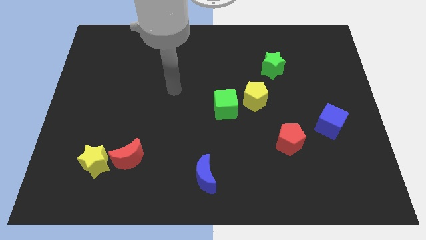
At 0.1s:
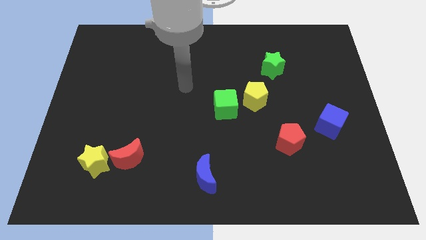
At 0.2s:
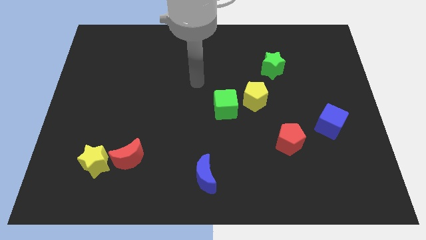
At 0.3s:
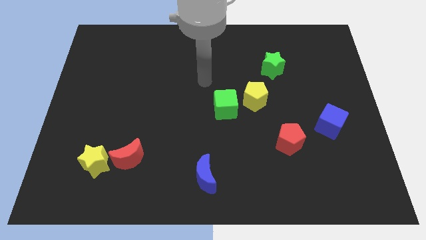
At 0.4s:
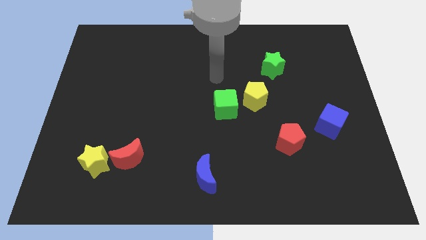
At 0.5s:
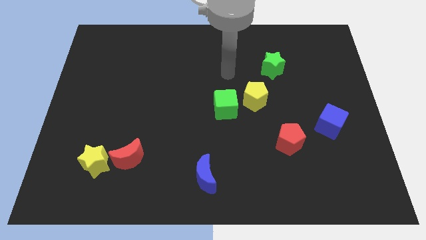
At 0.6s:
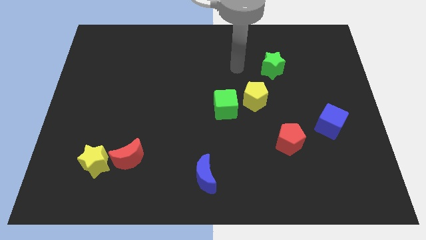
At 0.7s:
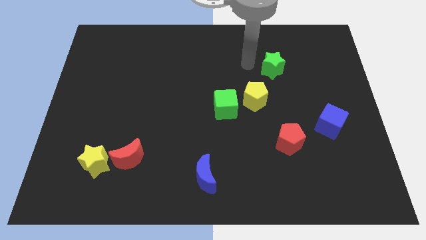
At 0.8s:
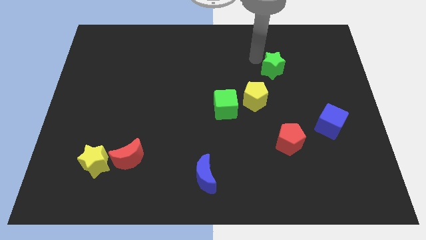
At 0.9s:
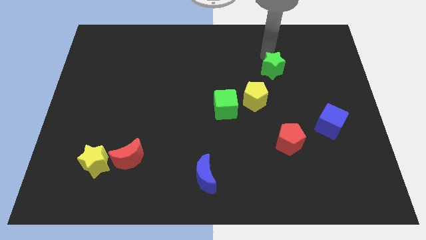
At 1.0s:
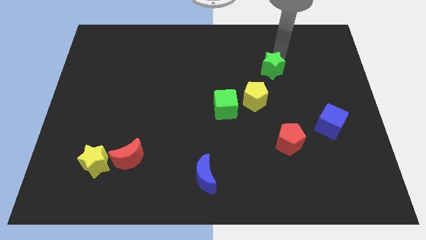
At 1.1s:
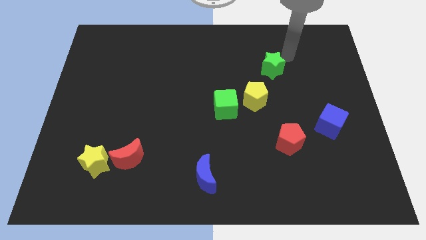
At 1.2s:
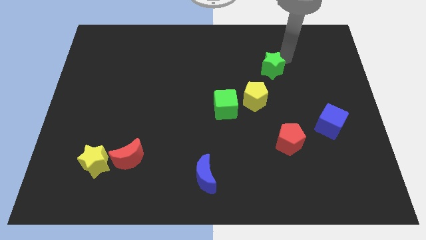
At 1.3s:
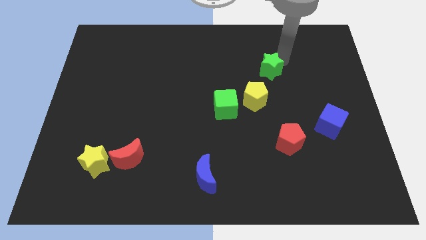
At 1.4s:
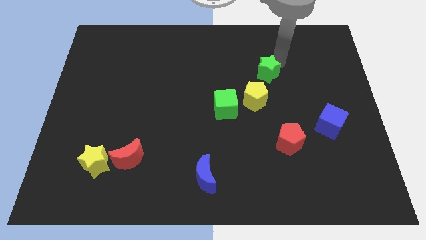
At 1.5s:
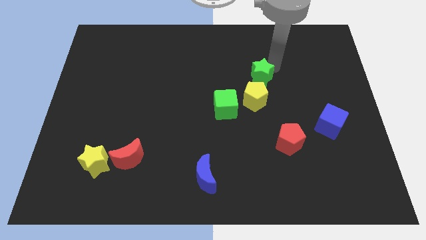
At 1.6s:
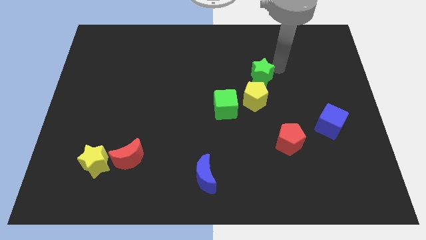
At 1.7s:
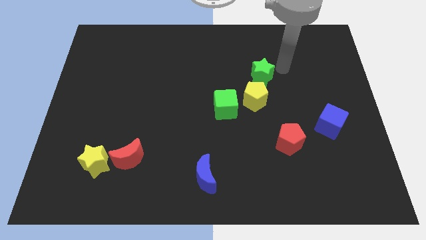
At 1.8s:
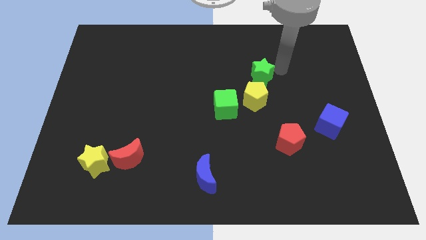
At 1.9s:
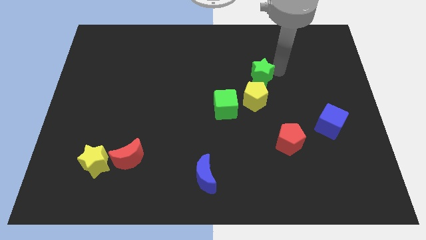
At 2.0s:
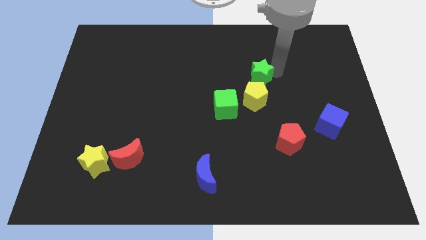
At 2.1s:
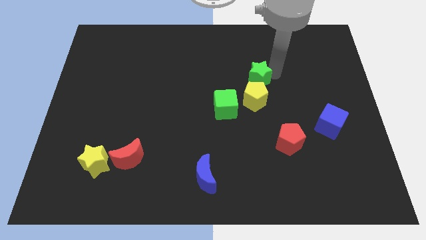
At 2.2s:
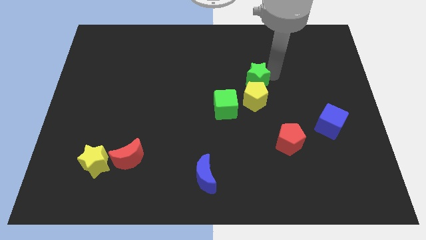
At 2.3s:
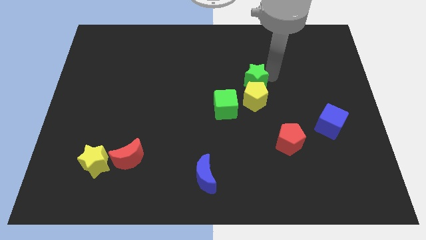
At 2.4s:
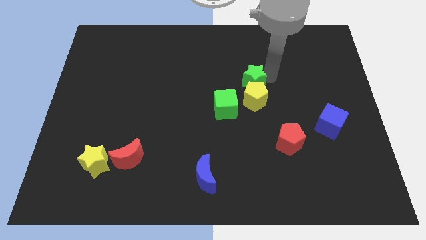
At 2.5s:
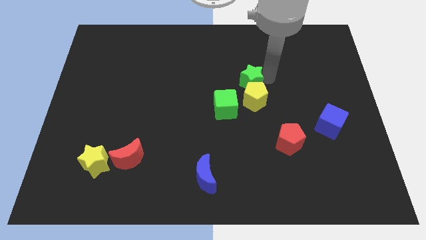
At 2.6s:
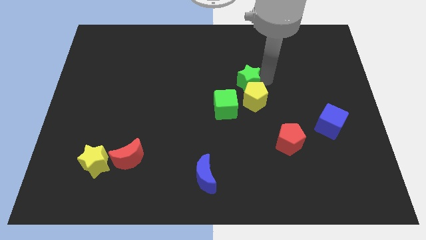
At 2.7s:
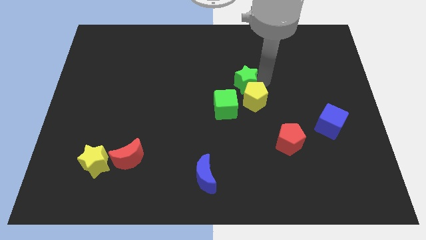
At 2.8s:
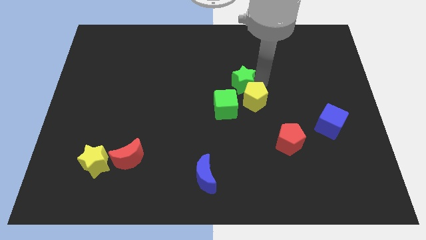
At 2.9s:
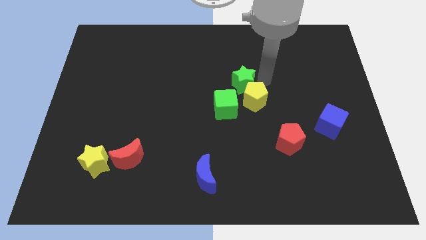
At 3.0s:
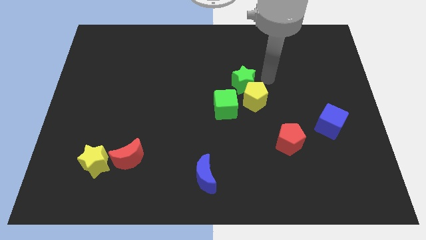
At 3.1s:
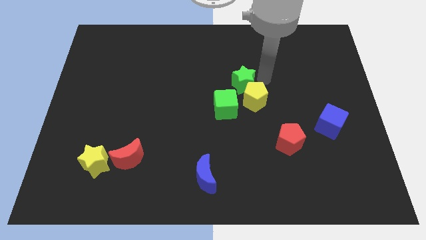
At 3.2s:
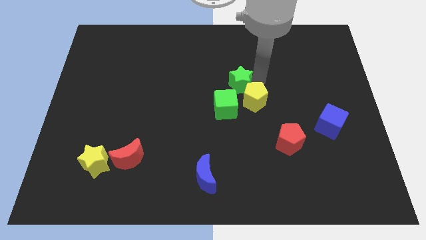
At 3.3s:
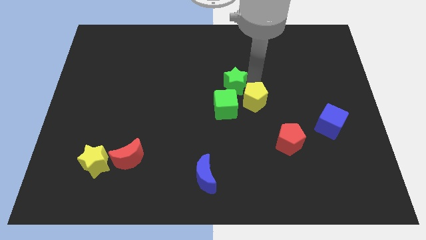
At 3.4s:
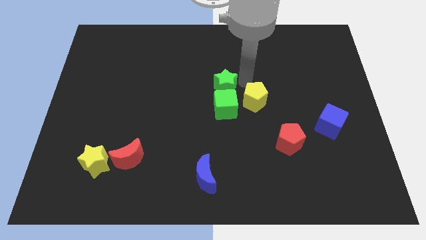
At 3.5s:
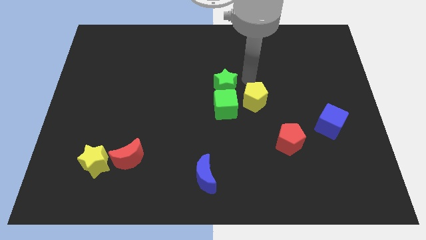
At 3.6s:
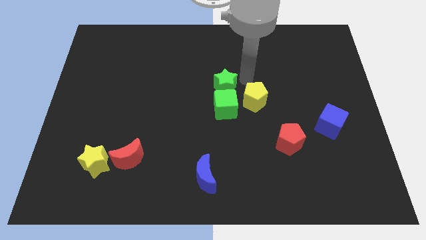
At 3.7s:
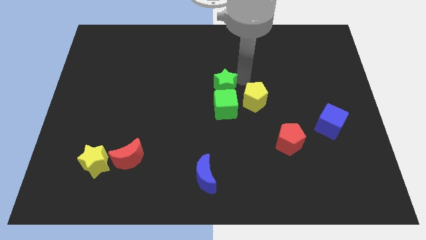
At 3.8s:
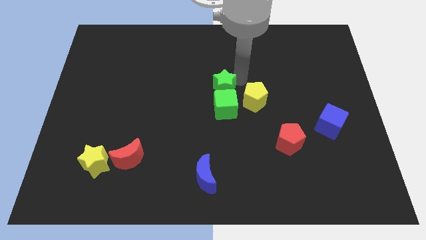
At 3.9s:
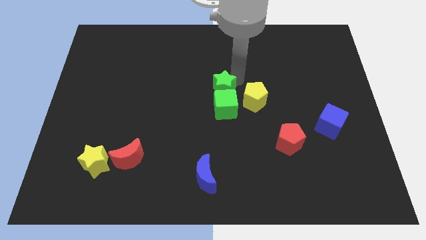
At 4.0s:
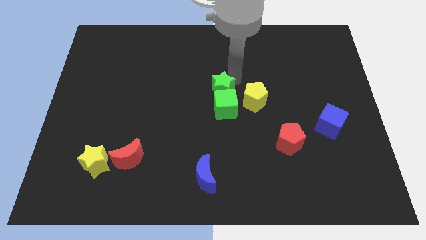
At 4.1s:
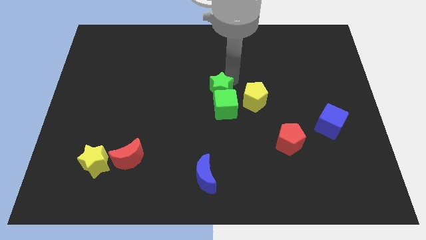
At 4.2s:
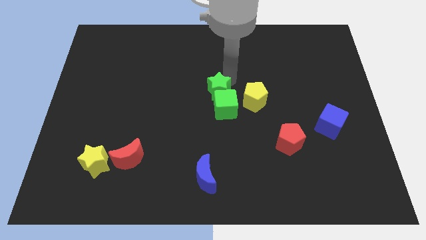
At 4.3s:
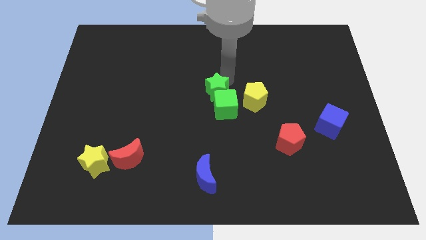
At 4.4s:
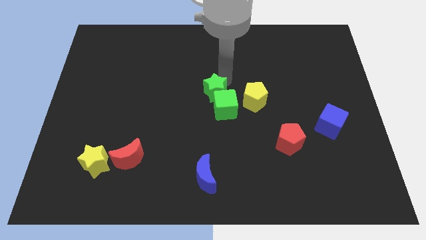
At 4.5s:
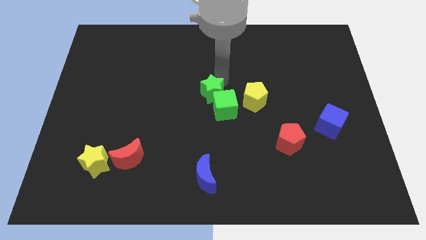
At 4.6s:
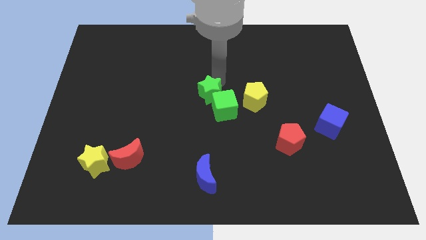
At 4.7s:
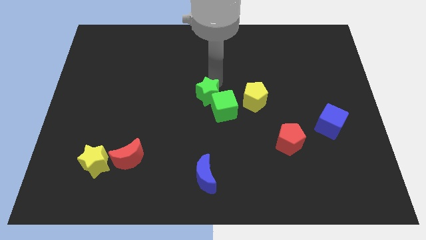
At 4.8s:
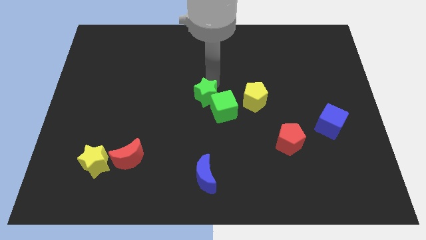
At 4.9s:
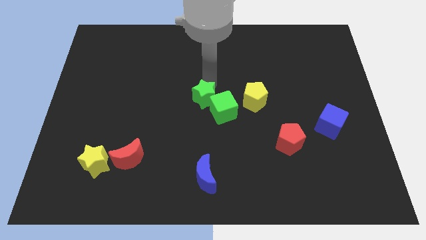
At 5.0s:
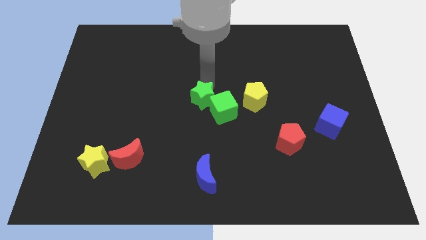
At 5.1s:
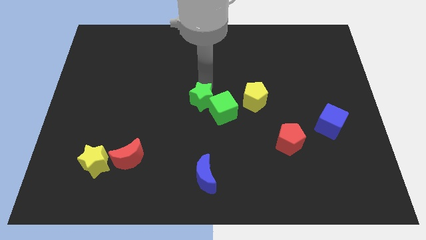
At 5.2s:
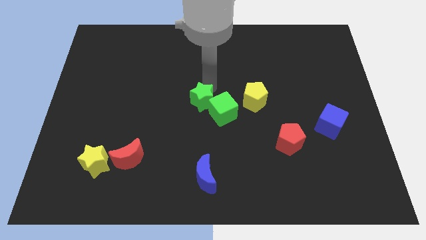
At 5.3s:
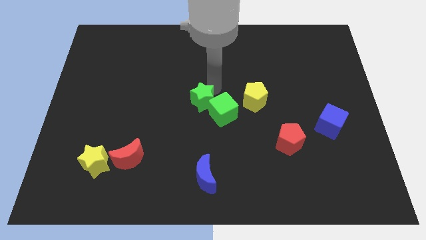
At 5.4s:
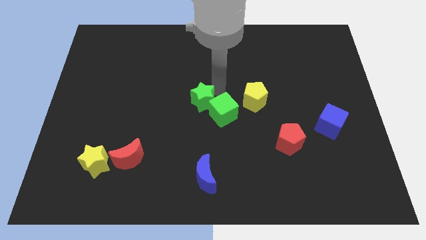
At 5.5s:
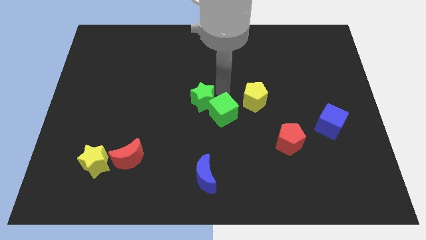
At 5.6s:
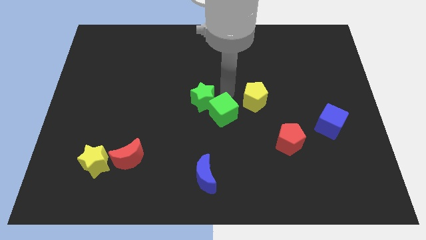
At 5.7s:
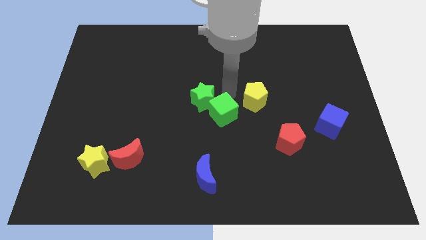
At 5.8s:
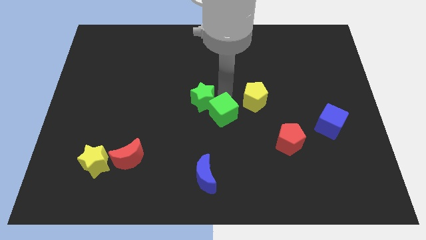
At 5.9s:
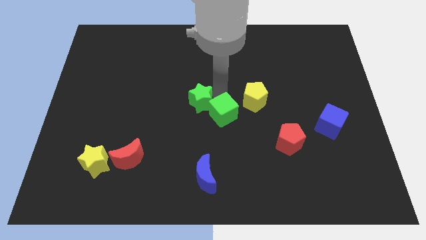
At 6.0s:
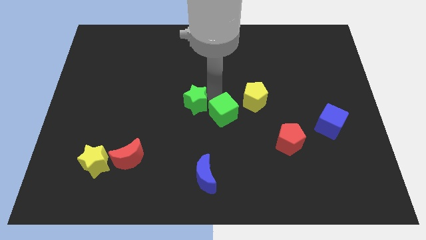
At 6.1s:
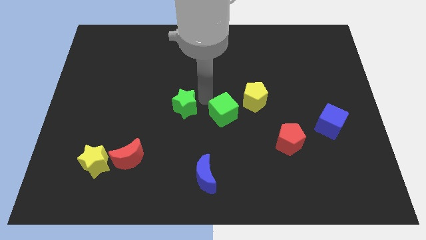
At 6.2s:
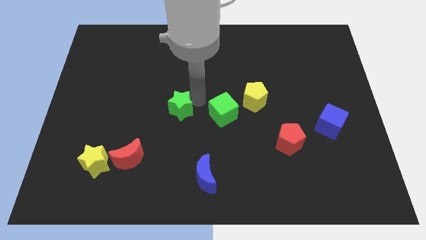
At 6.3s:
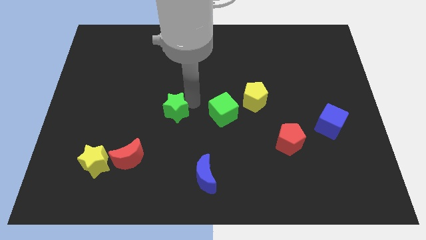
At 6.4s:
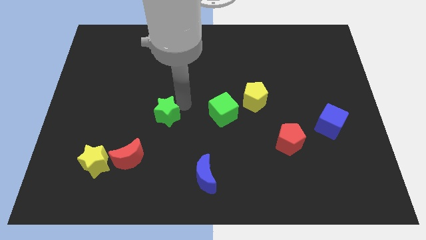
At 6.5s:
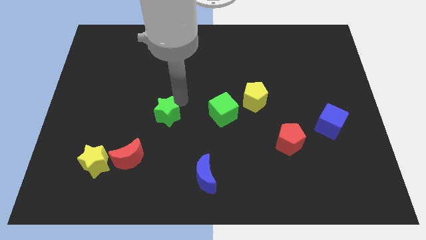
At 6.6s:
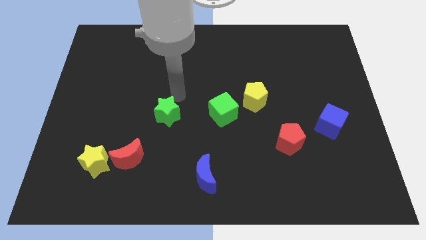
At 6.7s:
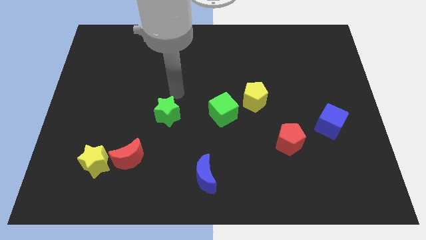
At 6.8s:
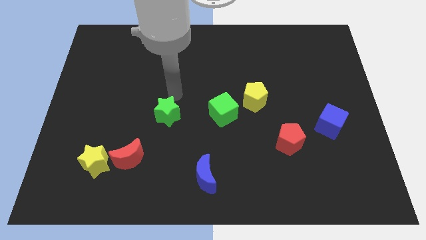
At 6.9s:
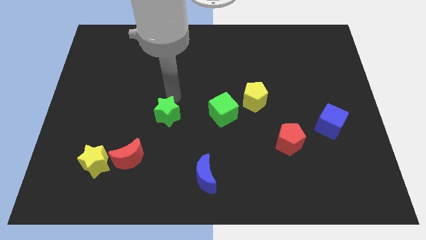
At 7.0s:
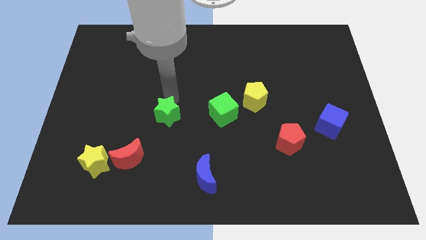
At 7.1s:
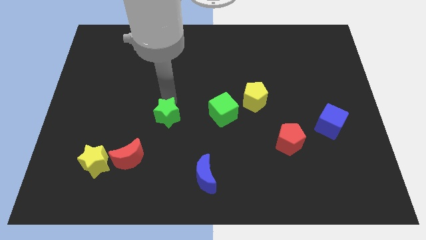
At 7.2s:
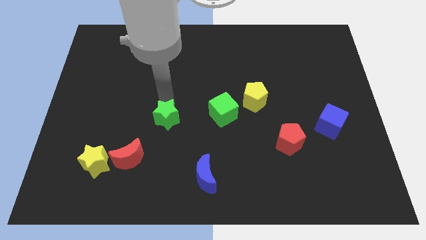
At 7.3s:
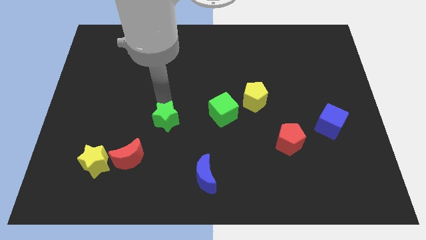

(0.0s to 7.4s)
move the green star to the top right side of the red moon

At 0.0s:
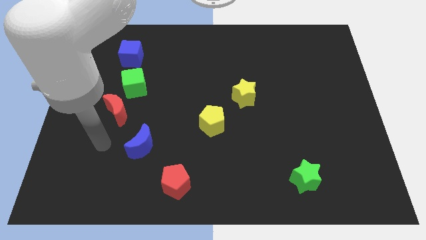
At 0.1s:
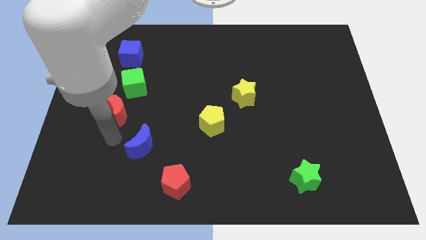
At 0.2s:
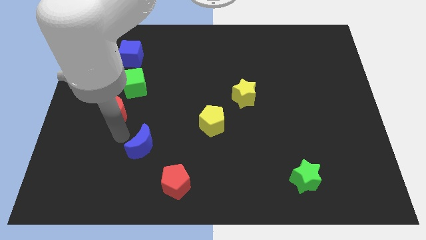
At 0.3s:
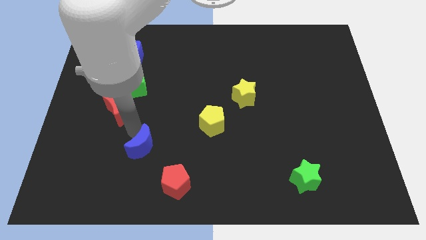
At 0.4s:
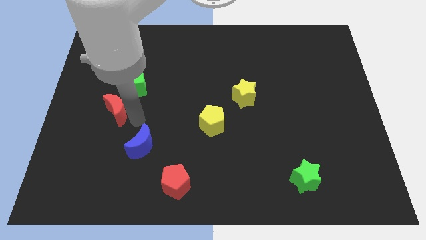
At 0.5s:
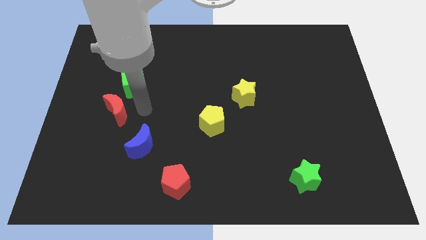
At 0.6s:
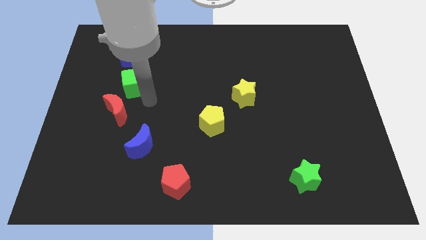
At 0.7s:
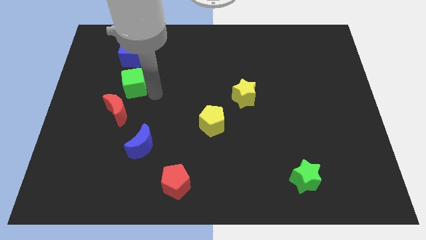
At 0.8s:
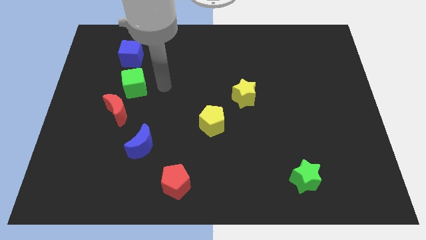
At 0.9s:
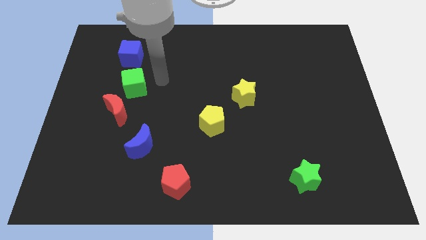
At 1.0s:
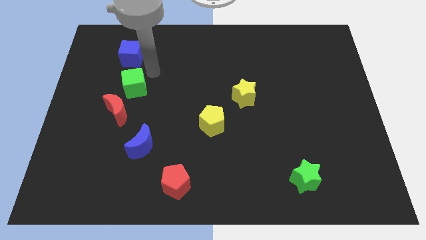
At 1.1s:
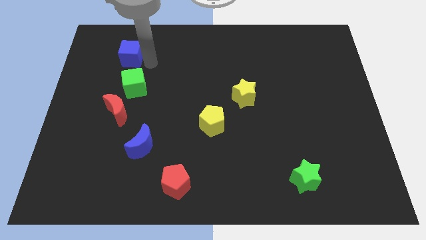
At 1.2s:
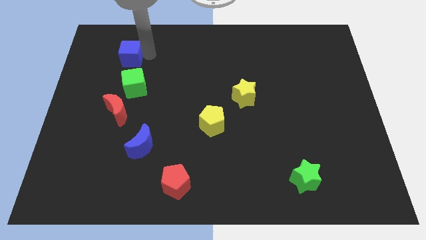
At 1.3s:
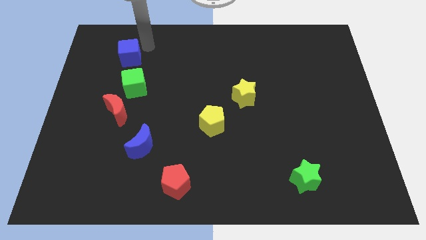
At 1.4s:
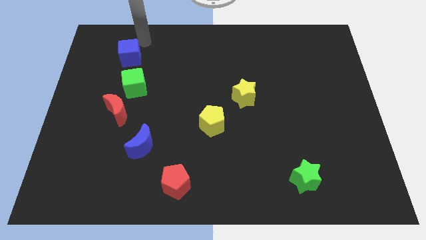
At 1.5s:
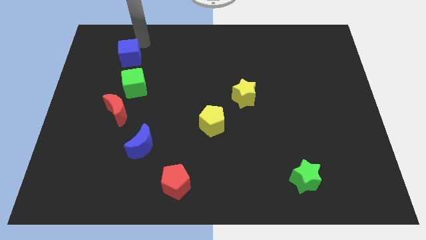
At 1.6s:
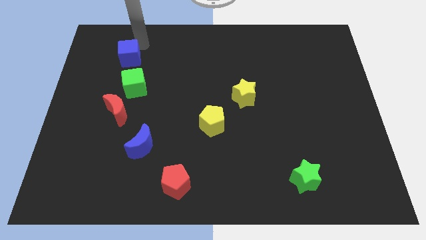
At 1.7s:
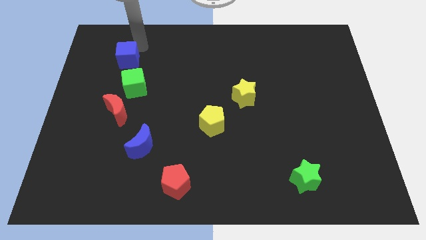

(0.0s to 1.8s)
push the blue cube to the top left of the green cube
